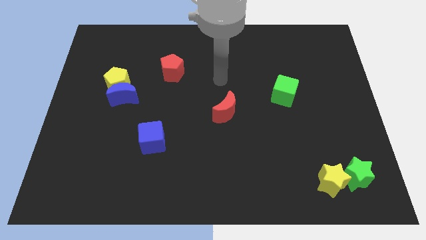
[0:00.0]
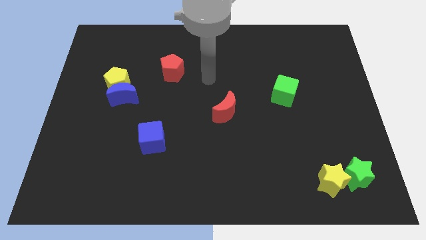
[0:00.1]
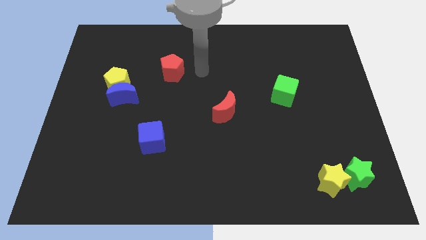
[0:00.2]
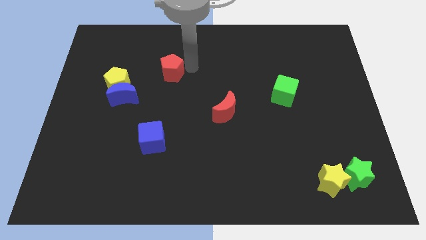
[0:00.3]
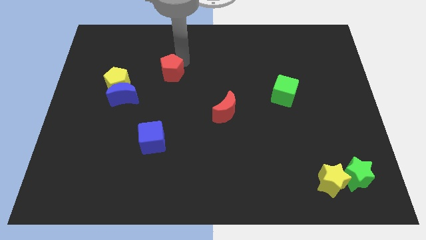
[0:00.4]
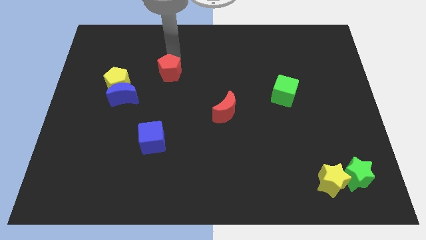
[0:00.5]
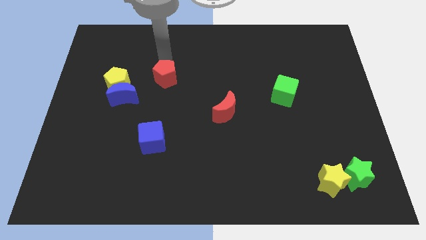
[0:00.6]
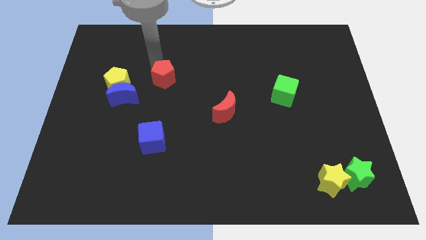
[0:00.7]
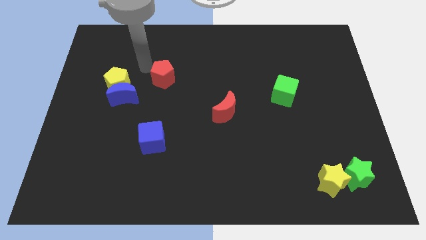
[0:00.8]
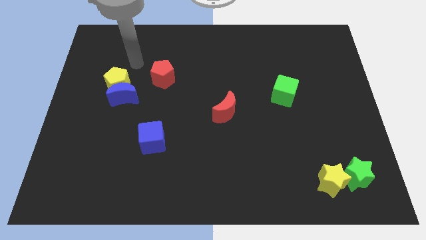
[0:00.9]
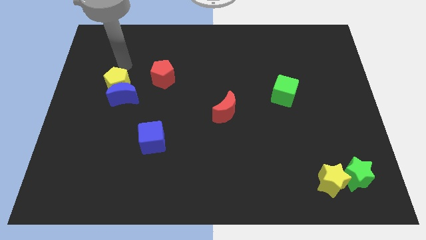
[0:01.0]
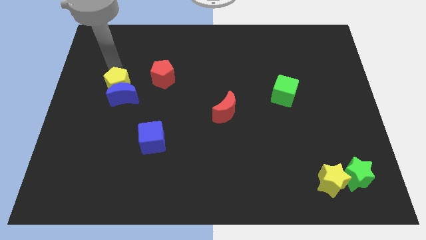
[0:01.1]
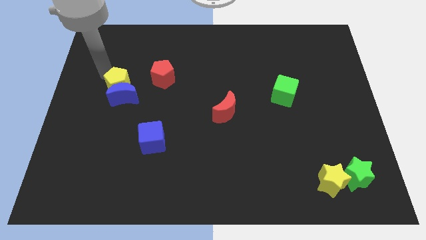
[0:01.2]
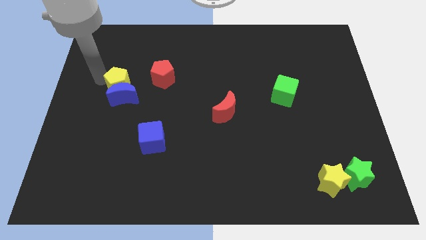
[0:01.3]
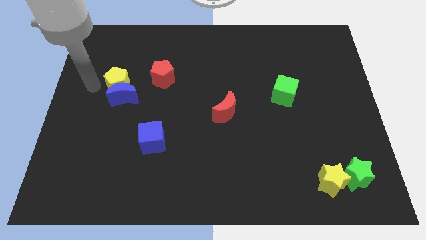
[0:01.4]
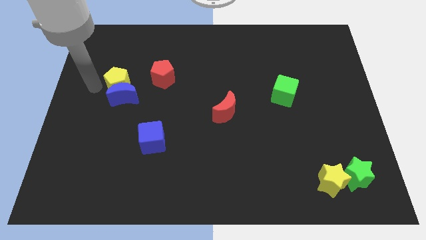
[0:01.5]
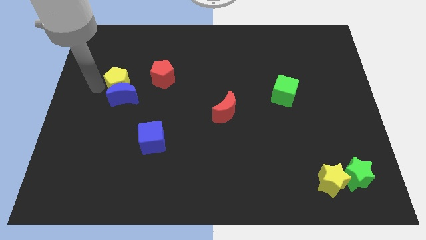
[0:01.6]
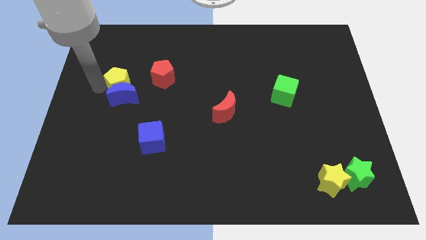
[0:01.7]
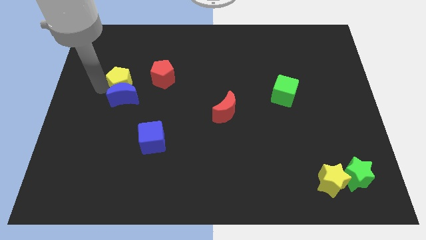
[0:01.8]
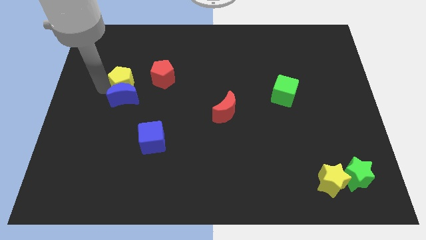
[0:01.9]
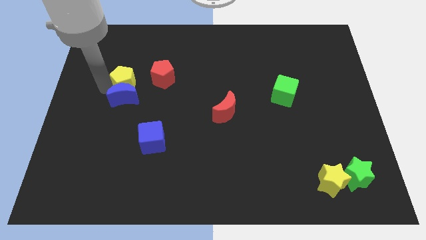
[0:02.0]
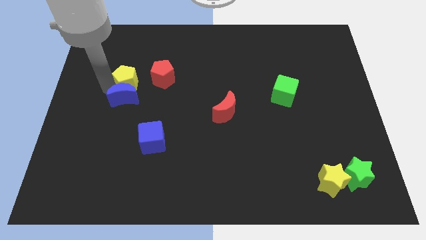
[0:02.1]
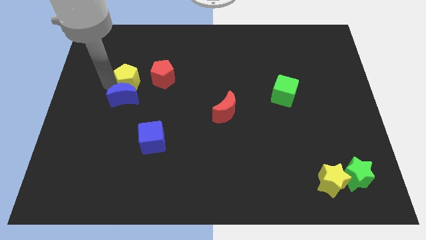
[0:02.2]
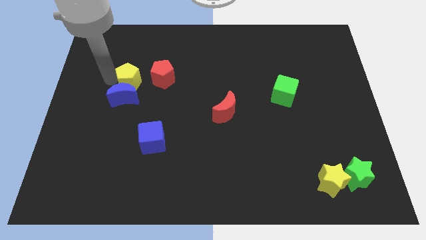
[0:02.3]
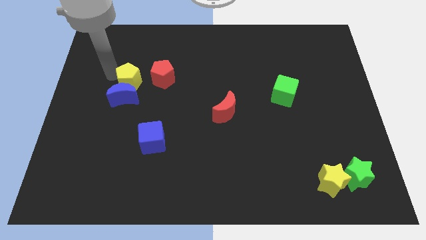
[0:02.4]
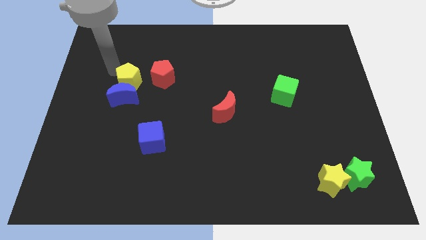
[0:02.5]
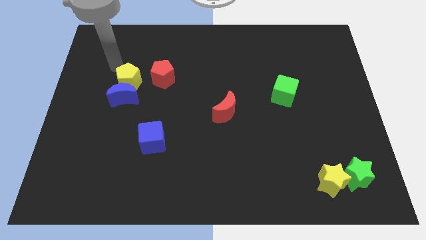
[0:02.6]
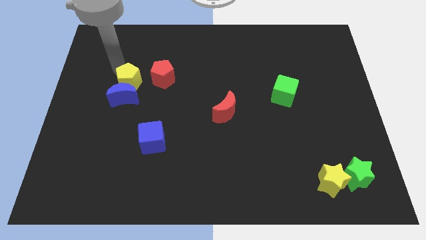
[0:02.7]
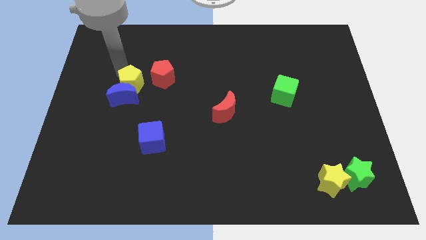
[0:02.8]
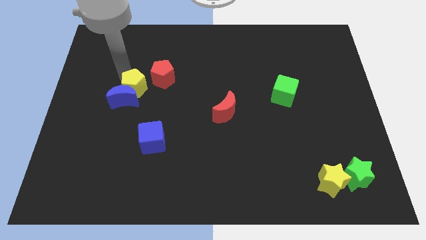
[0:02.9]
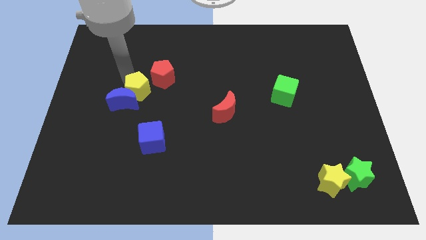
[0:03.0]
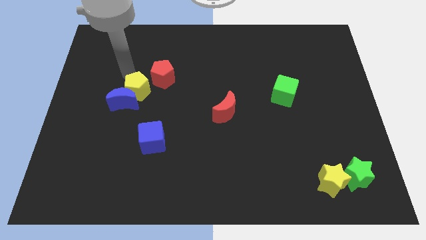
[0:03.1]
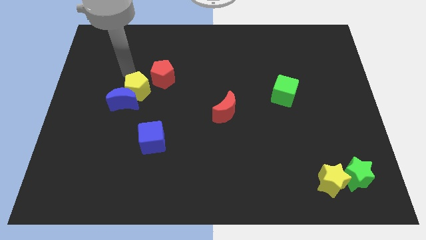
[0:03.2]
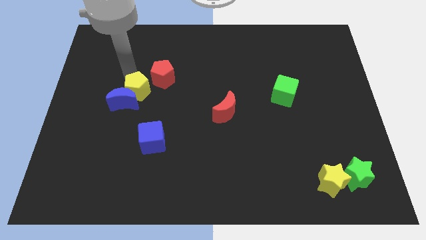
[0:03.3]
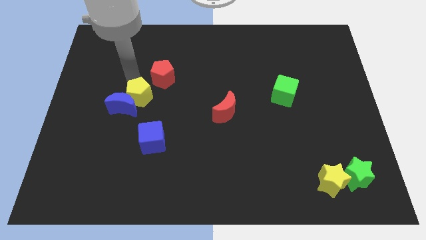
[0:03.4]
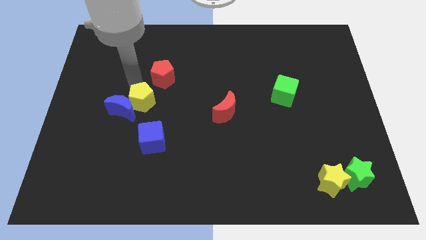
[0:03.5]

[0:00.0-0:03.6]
move the yellow pentagon diagonally down and right a little

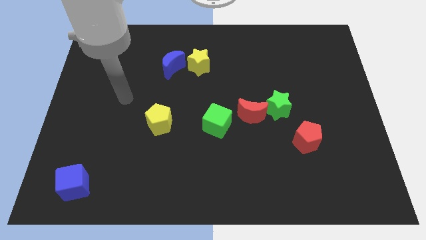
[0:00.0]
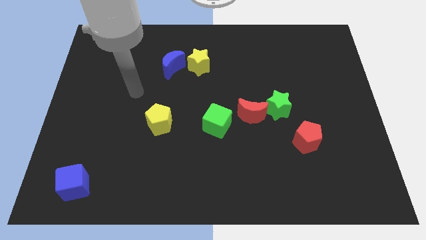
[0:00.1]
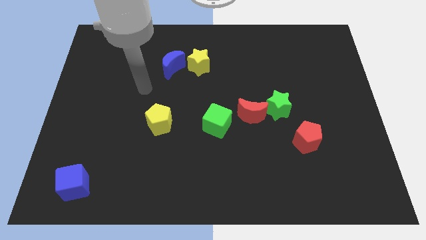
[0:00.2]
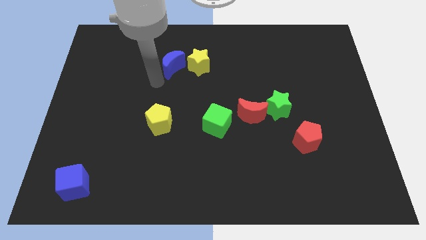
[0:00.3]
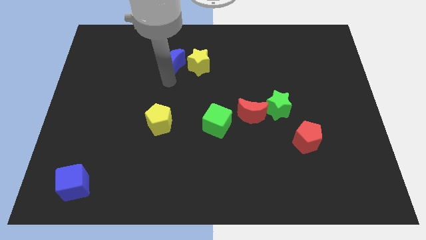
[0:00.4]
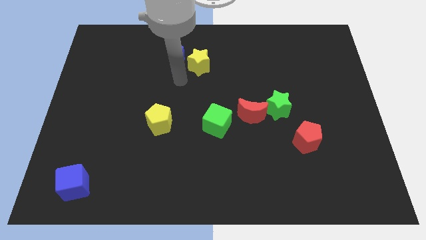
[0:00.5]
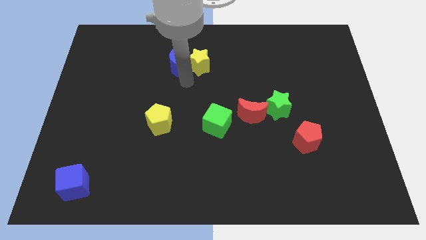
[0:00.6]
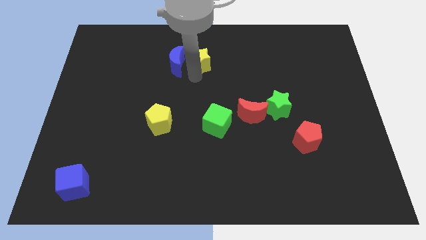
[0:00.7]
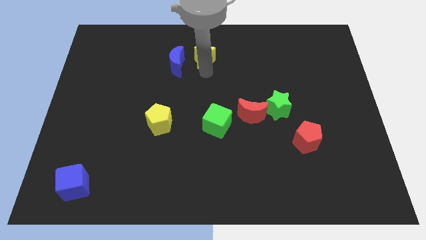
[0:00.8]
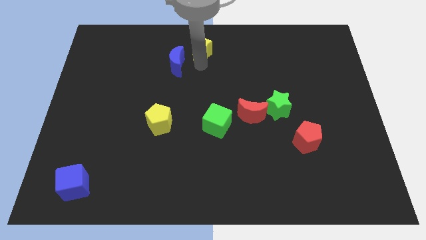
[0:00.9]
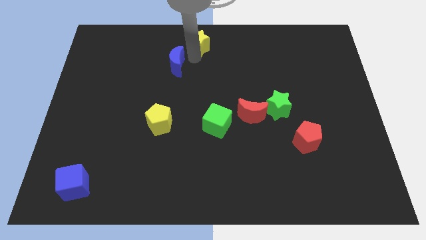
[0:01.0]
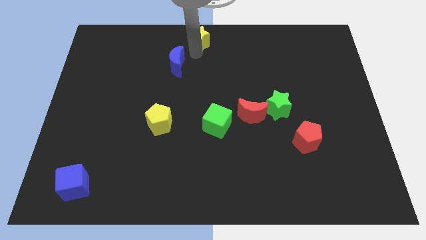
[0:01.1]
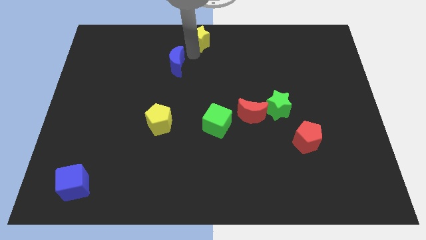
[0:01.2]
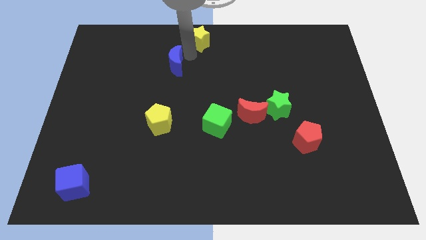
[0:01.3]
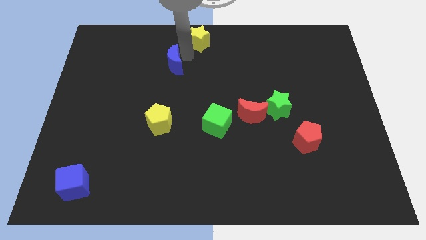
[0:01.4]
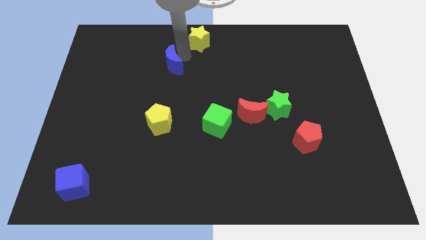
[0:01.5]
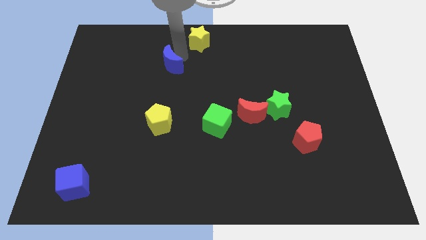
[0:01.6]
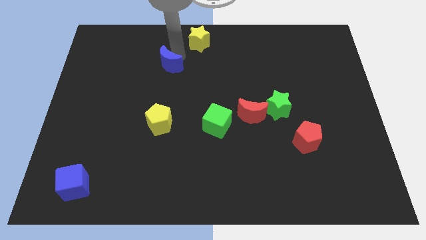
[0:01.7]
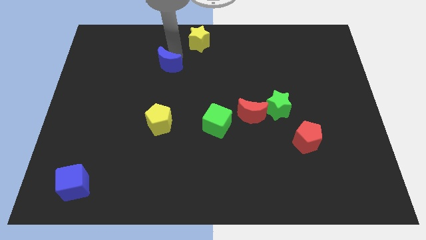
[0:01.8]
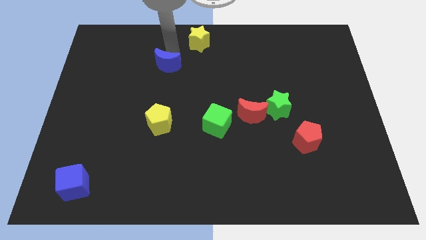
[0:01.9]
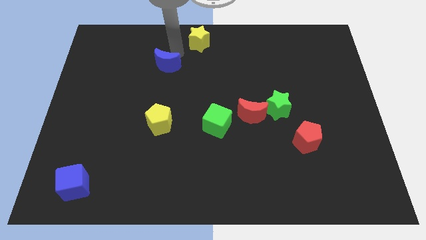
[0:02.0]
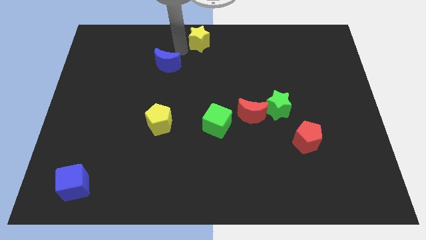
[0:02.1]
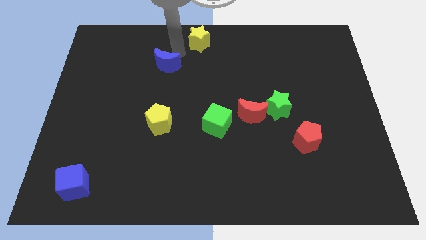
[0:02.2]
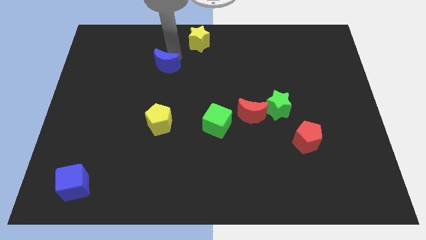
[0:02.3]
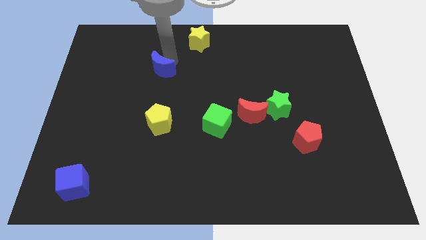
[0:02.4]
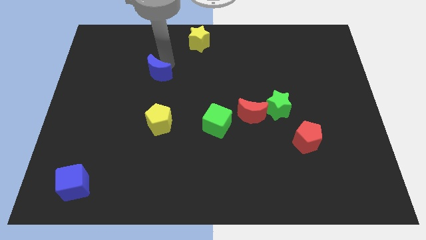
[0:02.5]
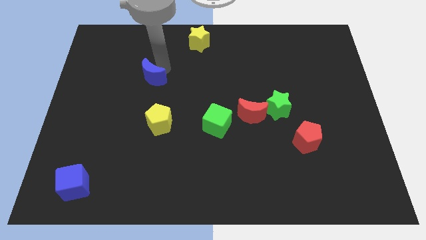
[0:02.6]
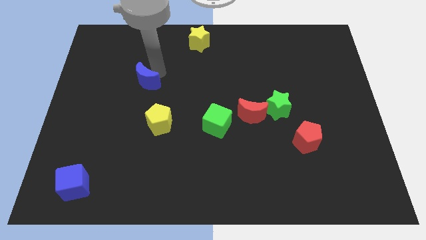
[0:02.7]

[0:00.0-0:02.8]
slide the blue moon down and left somewhat

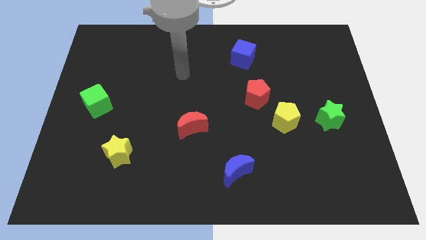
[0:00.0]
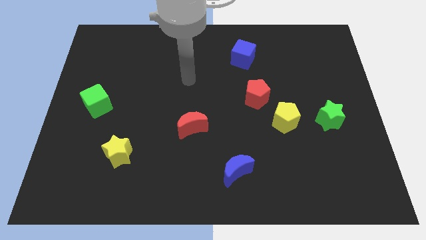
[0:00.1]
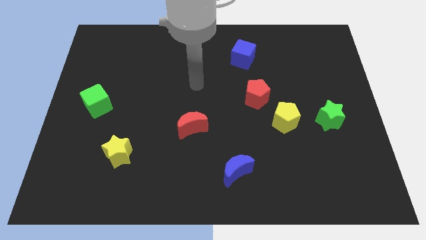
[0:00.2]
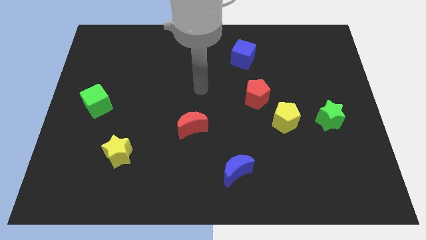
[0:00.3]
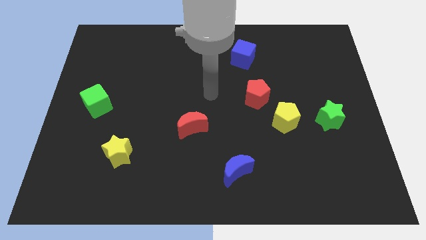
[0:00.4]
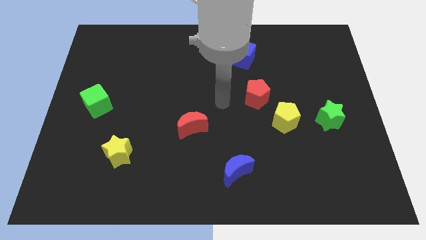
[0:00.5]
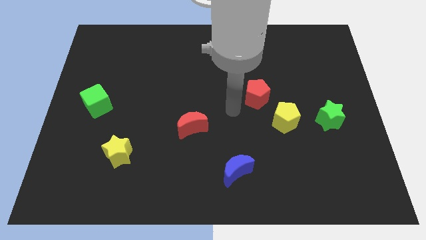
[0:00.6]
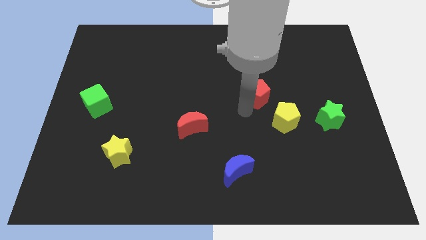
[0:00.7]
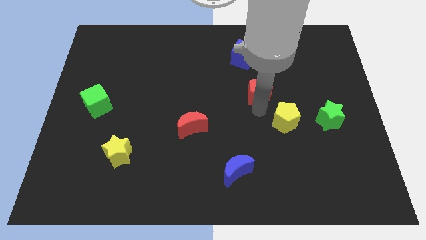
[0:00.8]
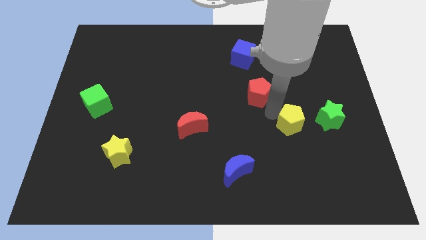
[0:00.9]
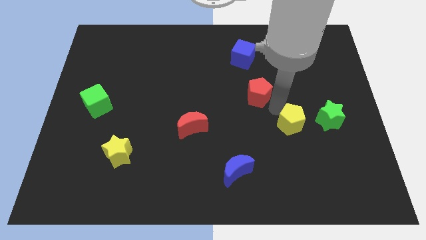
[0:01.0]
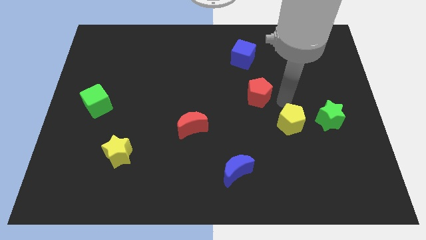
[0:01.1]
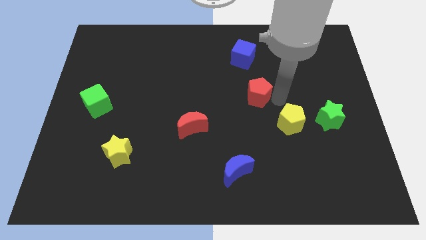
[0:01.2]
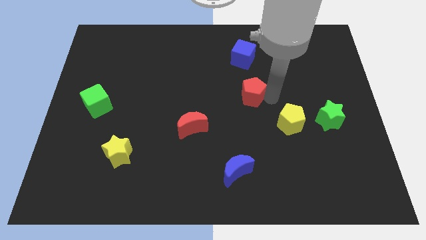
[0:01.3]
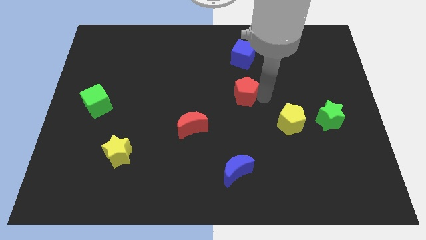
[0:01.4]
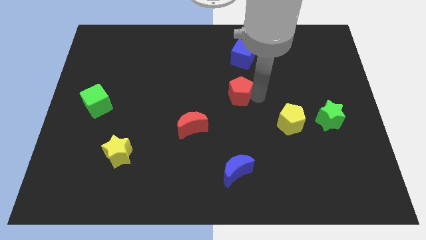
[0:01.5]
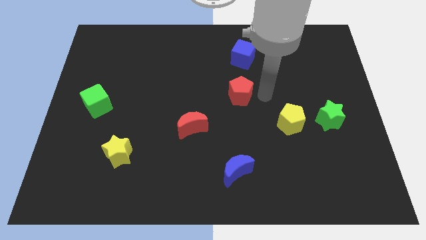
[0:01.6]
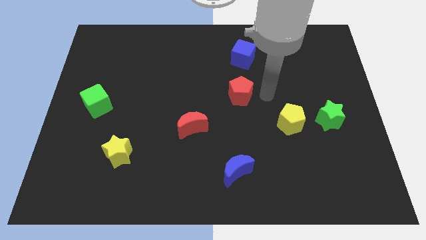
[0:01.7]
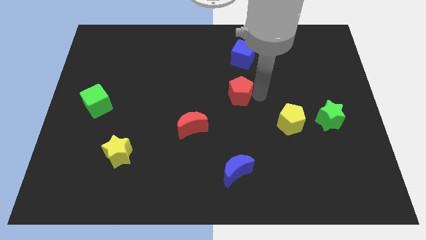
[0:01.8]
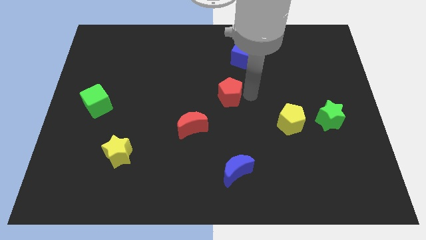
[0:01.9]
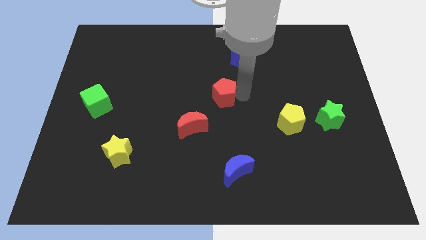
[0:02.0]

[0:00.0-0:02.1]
move the red pentagon to the left a bit
